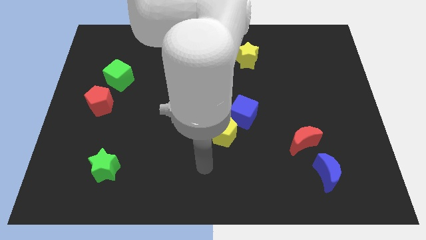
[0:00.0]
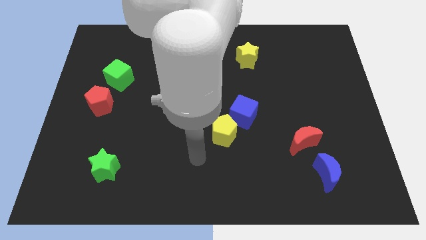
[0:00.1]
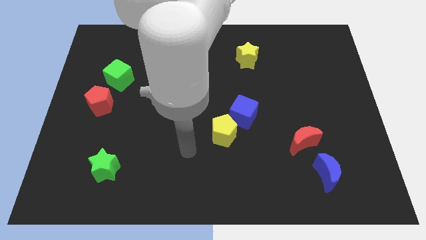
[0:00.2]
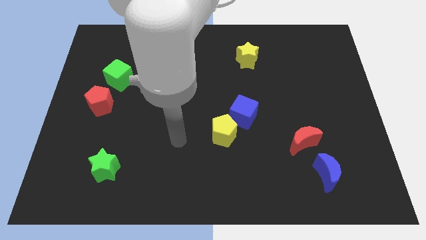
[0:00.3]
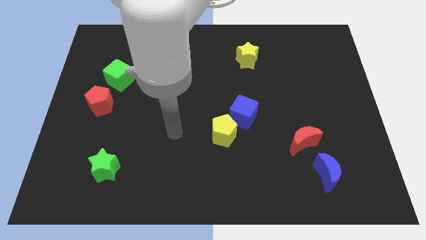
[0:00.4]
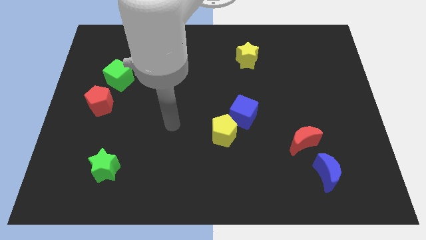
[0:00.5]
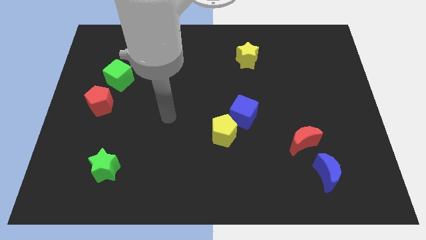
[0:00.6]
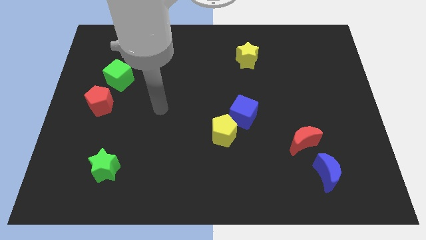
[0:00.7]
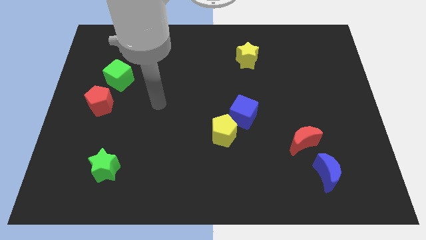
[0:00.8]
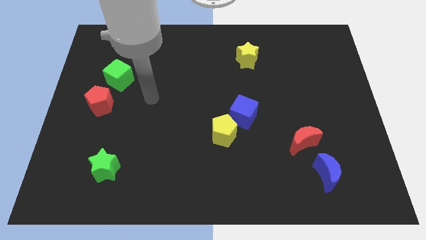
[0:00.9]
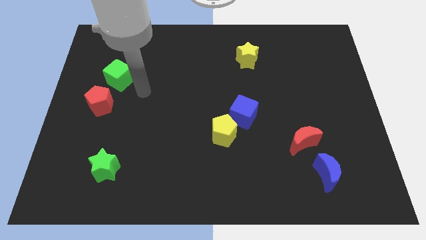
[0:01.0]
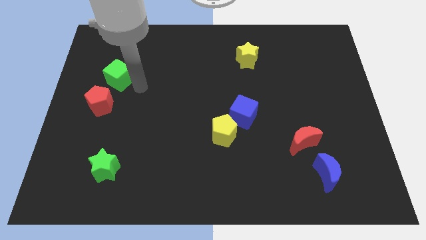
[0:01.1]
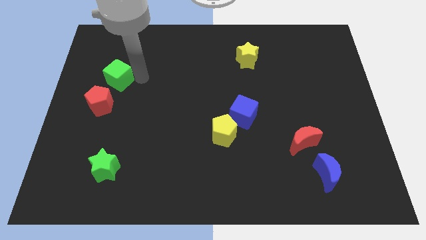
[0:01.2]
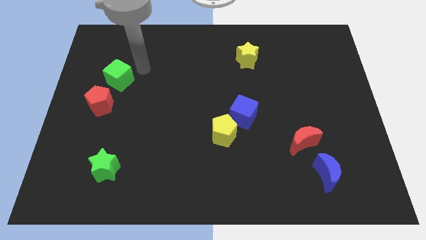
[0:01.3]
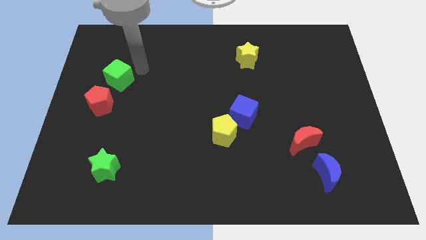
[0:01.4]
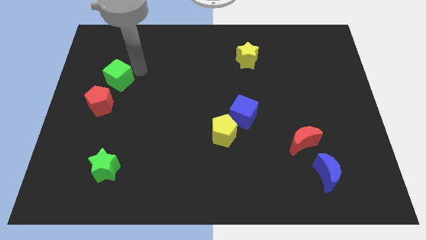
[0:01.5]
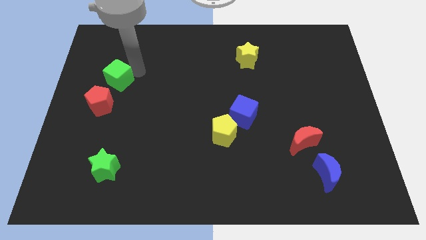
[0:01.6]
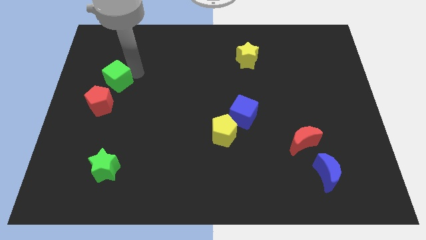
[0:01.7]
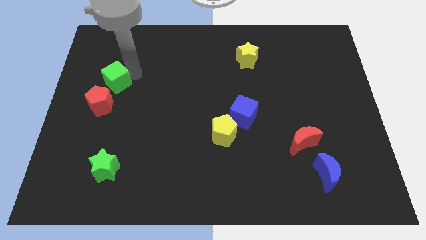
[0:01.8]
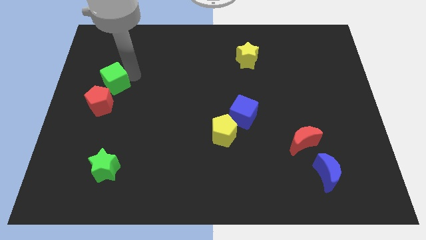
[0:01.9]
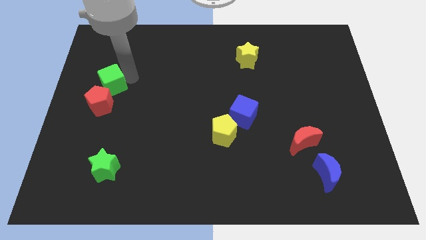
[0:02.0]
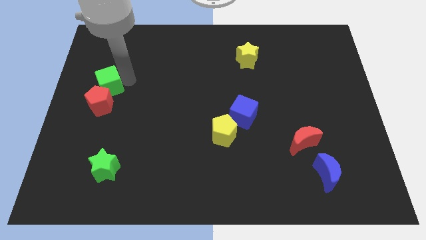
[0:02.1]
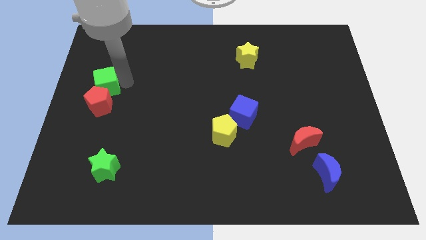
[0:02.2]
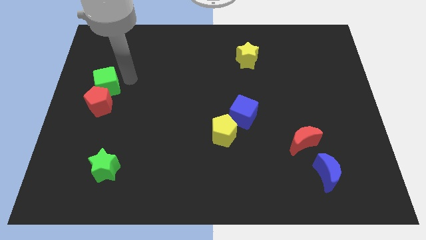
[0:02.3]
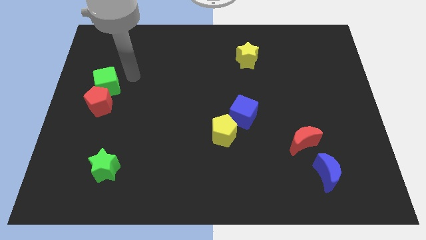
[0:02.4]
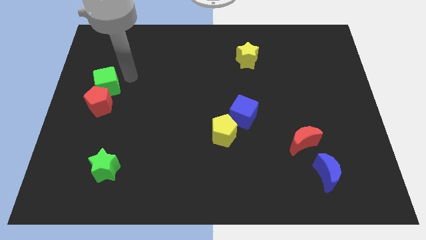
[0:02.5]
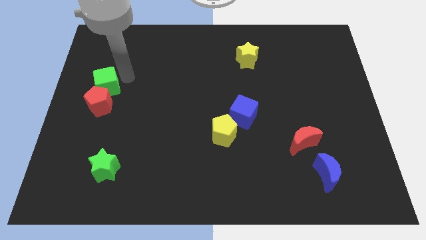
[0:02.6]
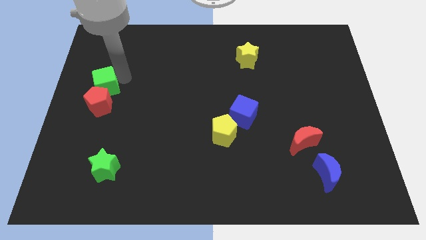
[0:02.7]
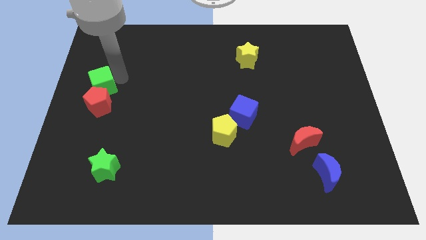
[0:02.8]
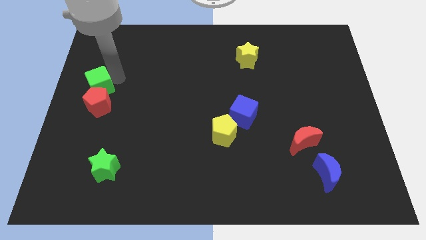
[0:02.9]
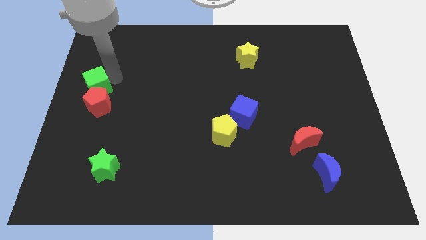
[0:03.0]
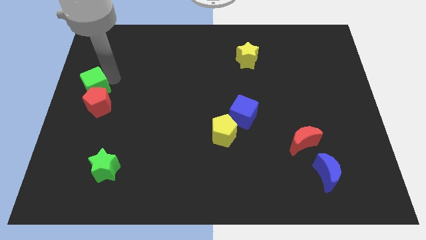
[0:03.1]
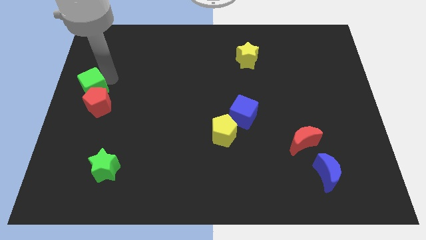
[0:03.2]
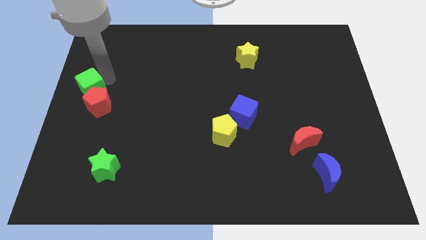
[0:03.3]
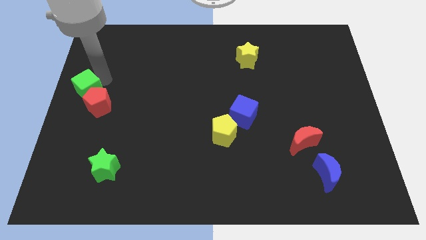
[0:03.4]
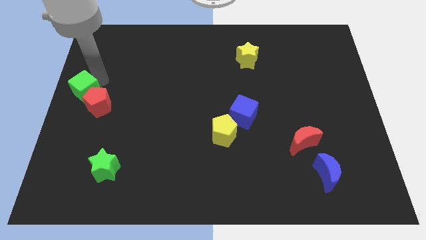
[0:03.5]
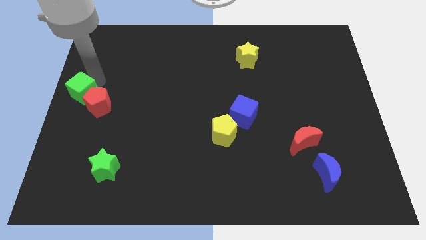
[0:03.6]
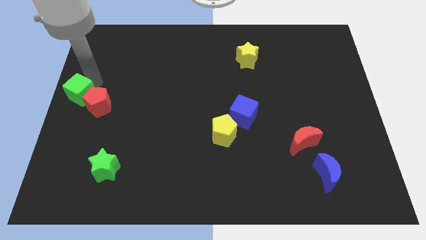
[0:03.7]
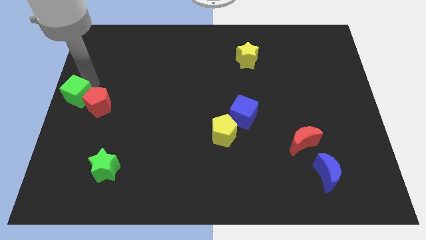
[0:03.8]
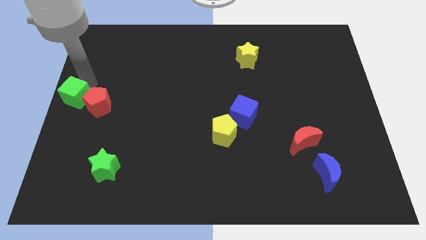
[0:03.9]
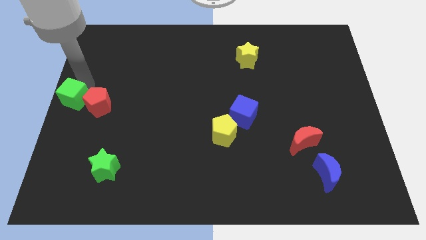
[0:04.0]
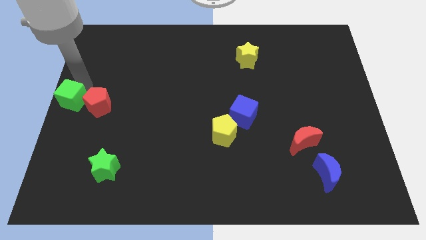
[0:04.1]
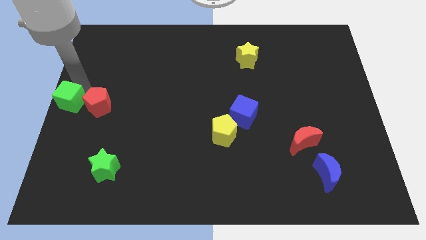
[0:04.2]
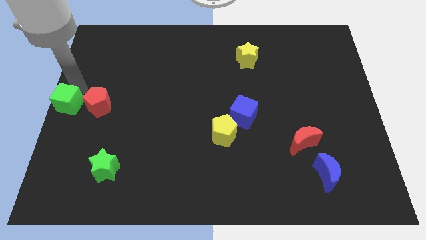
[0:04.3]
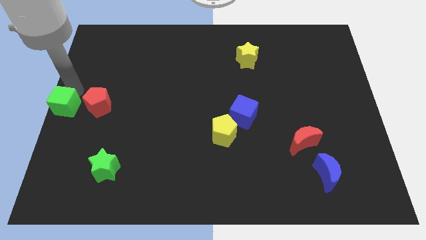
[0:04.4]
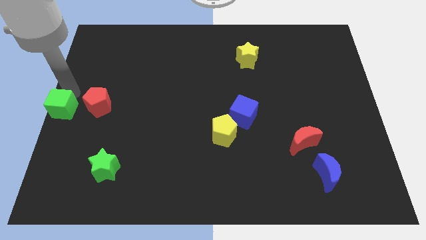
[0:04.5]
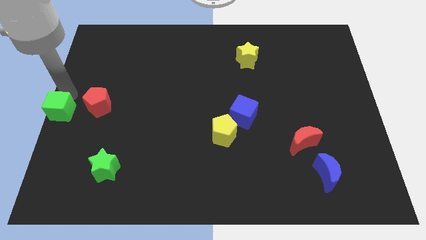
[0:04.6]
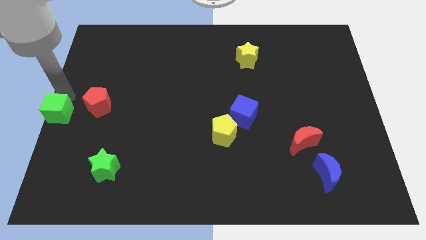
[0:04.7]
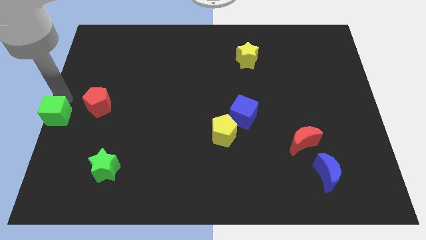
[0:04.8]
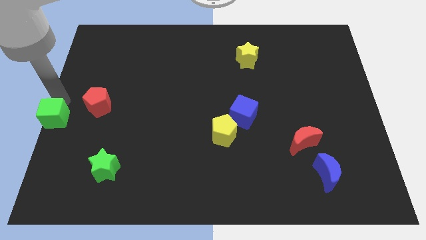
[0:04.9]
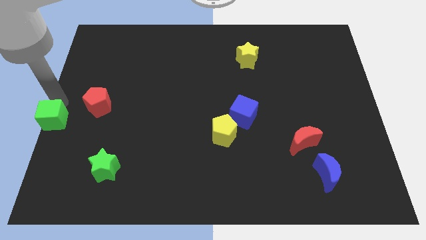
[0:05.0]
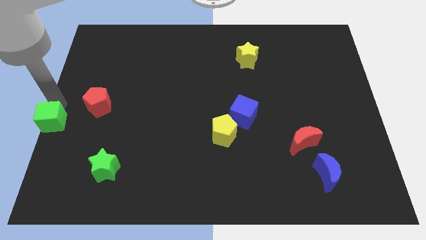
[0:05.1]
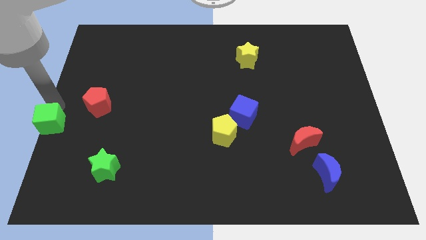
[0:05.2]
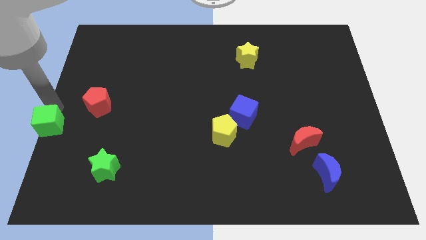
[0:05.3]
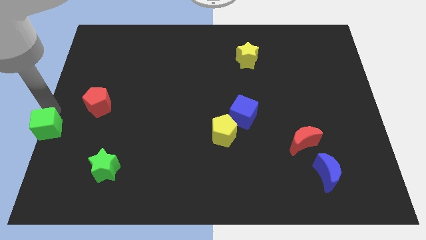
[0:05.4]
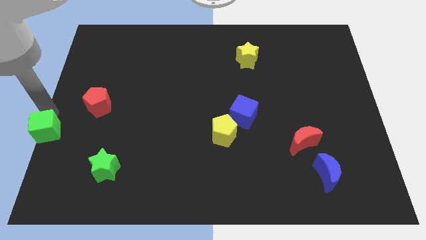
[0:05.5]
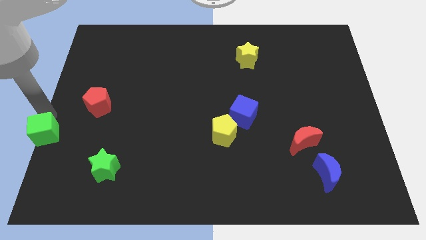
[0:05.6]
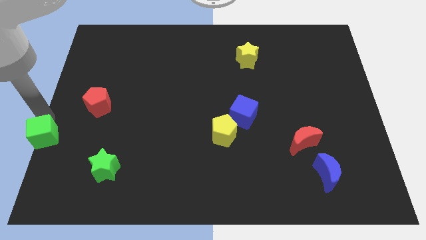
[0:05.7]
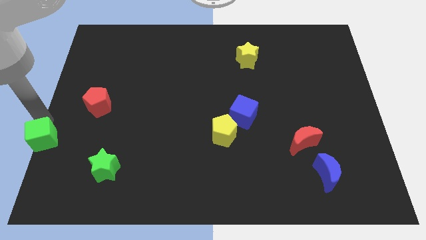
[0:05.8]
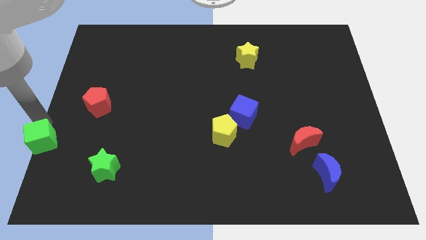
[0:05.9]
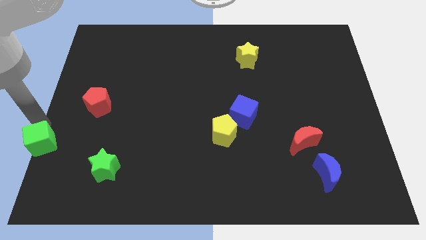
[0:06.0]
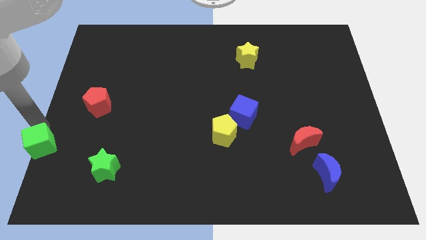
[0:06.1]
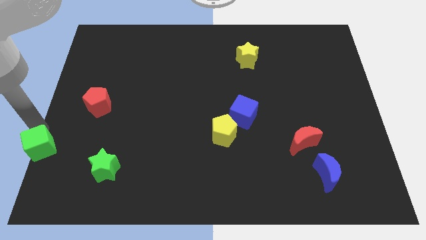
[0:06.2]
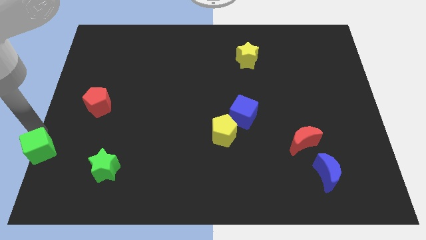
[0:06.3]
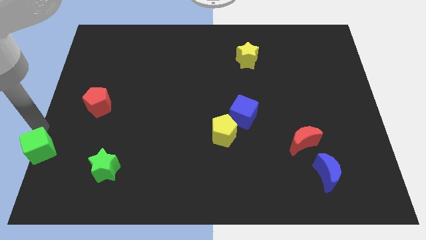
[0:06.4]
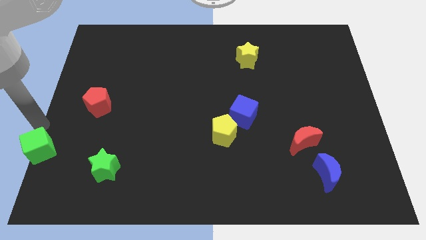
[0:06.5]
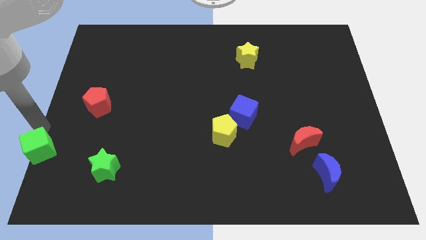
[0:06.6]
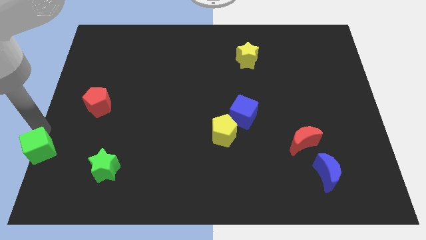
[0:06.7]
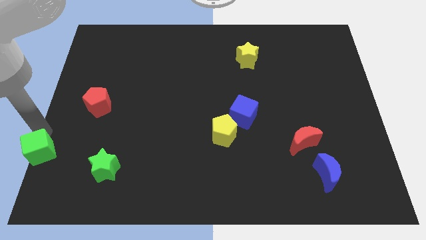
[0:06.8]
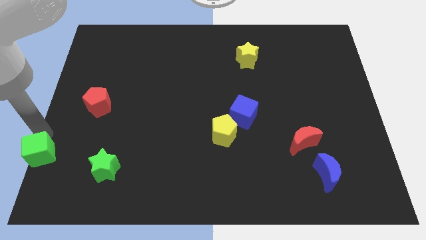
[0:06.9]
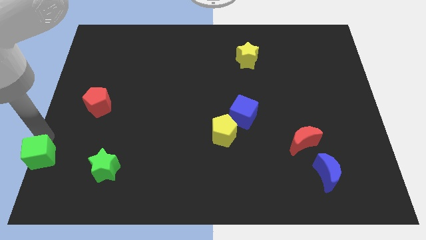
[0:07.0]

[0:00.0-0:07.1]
move the green cube to the bottom left
